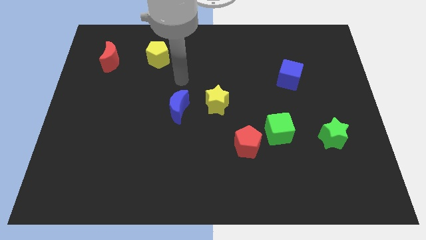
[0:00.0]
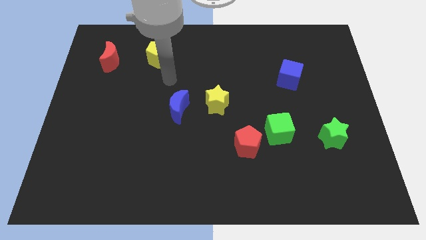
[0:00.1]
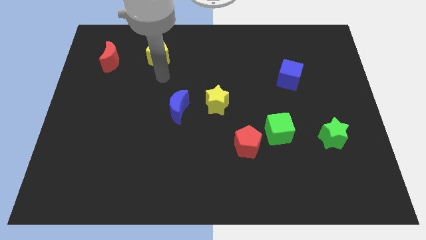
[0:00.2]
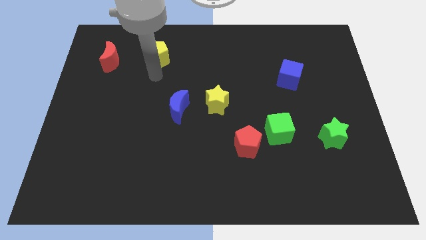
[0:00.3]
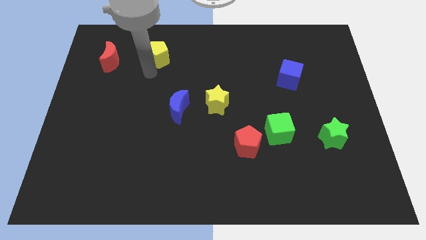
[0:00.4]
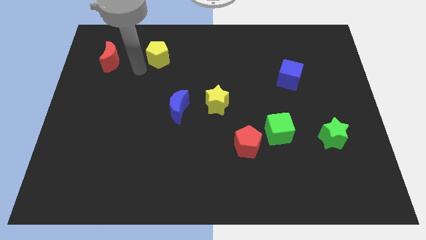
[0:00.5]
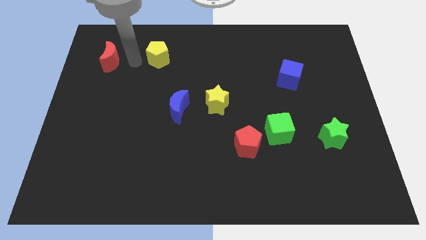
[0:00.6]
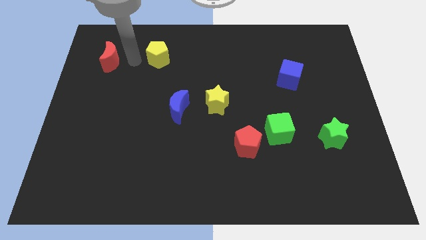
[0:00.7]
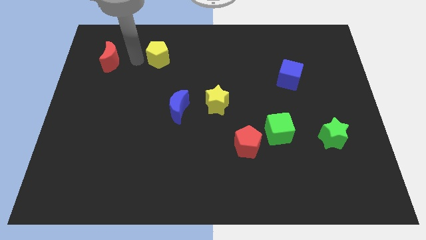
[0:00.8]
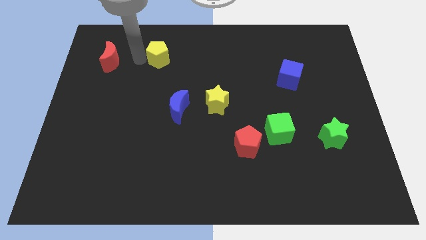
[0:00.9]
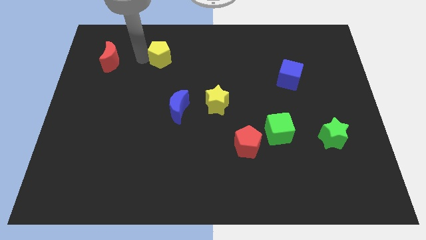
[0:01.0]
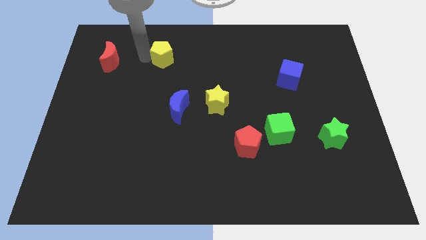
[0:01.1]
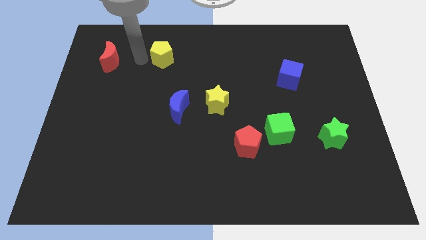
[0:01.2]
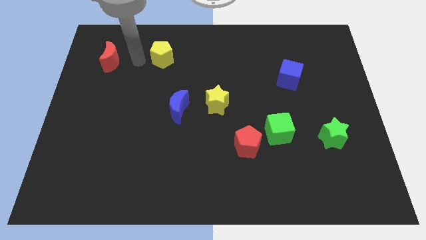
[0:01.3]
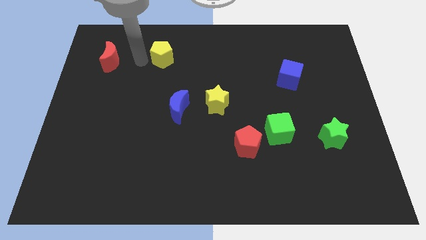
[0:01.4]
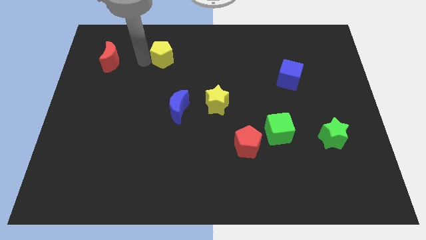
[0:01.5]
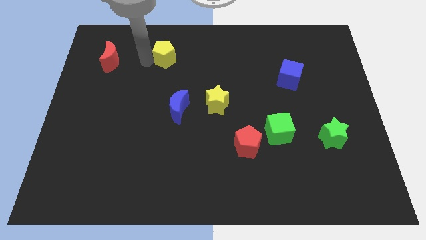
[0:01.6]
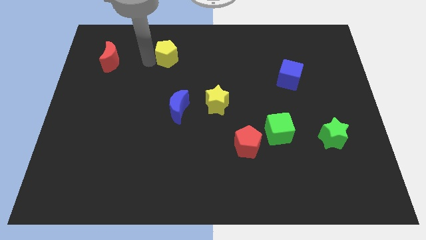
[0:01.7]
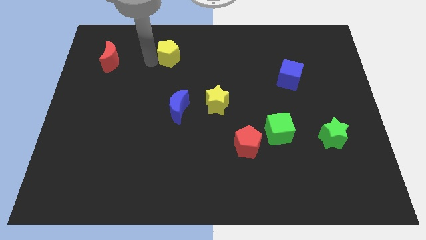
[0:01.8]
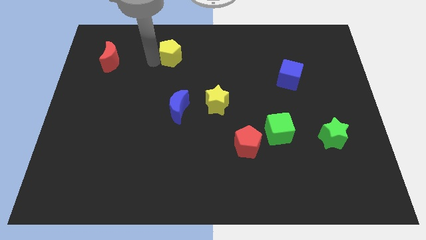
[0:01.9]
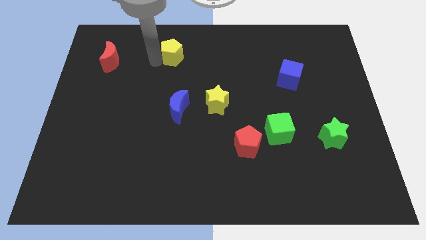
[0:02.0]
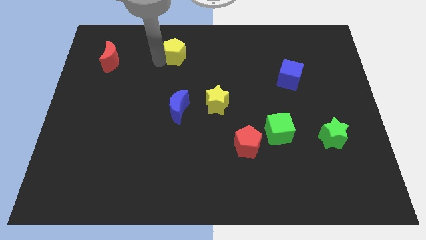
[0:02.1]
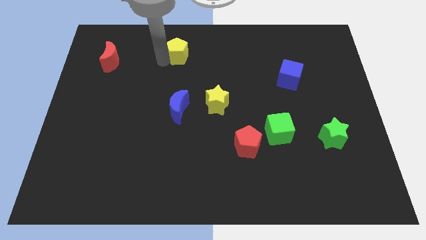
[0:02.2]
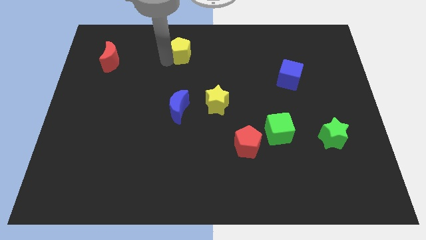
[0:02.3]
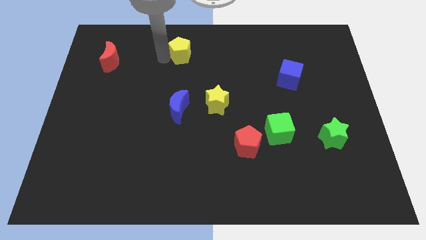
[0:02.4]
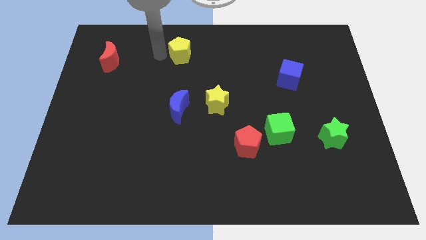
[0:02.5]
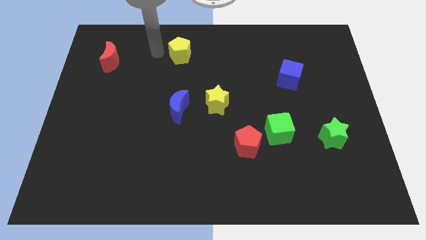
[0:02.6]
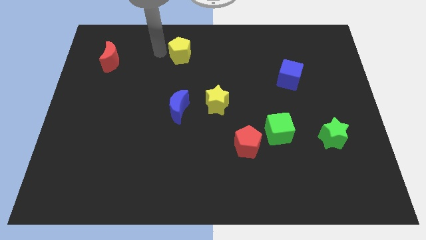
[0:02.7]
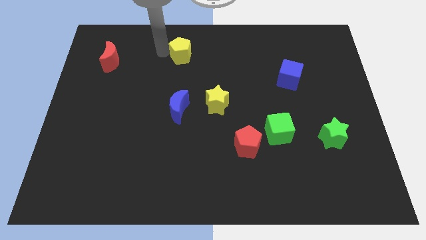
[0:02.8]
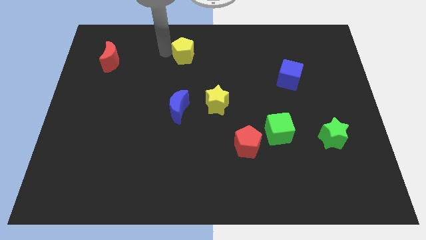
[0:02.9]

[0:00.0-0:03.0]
slightly slide the yellow pentagon right

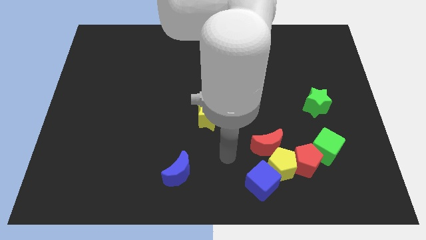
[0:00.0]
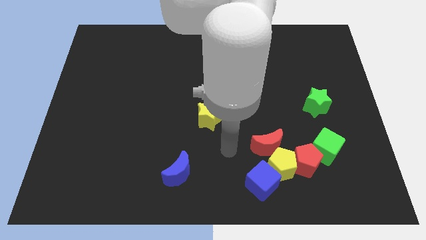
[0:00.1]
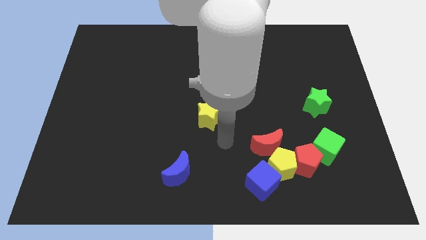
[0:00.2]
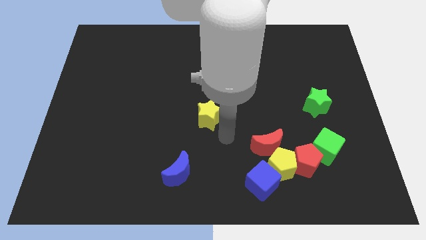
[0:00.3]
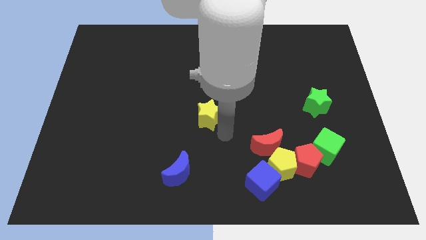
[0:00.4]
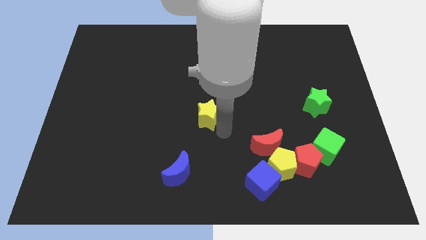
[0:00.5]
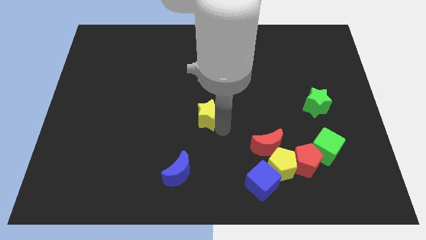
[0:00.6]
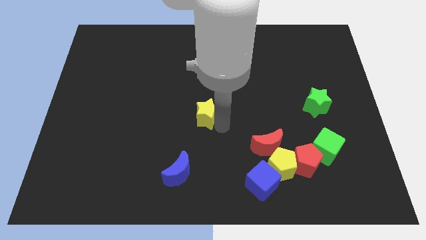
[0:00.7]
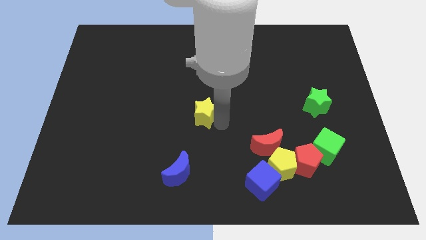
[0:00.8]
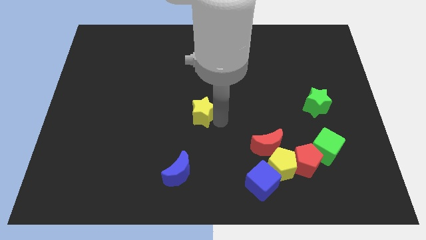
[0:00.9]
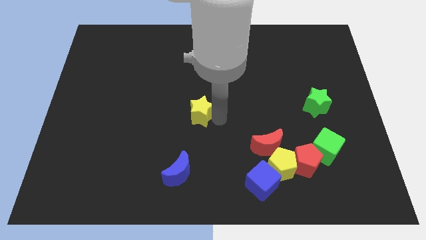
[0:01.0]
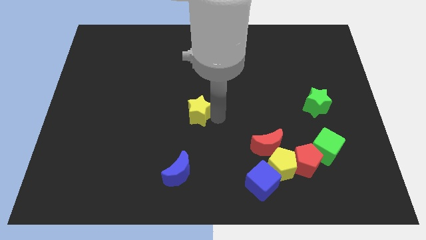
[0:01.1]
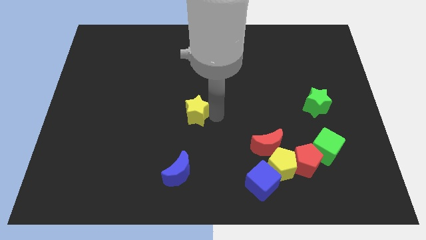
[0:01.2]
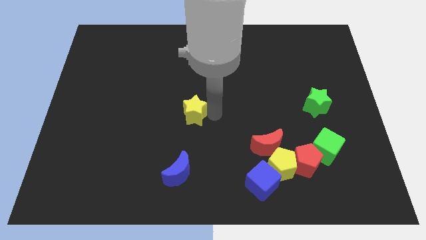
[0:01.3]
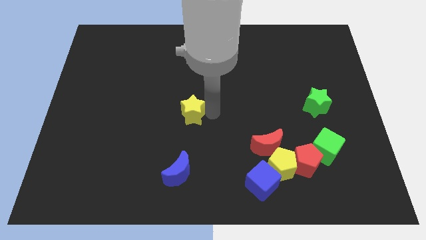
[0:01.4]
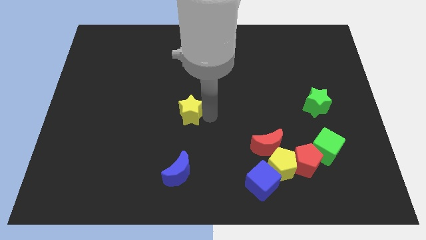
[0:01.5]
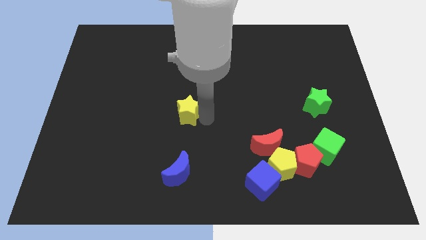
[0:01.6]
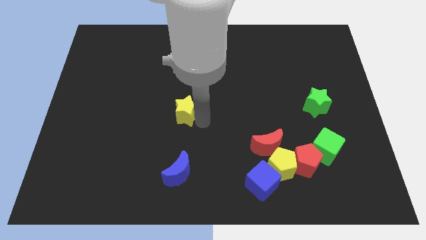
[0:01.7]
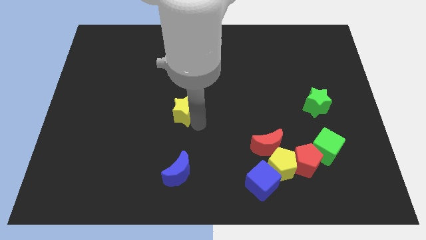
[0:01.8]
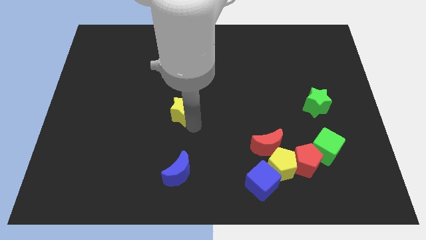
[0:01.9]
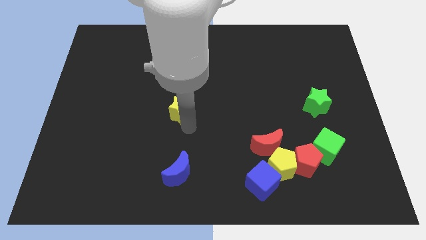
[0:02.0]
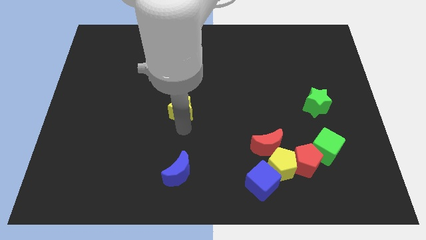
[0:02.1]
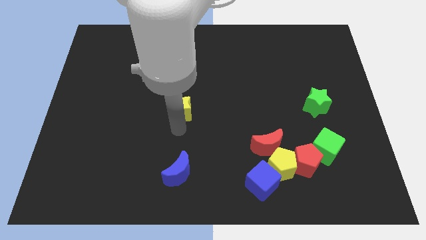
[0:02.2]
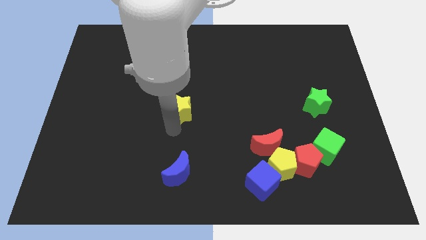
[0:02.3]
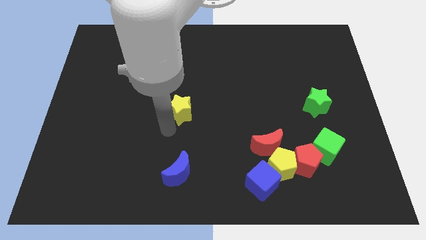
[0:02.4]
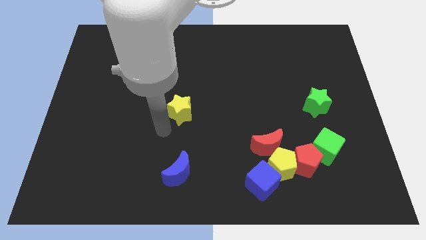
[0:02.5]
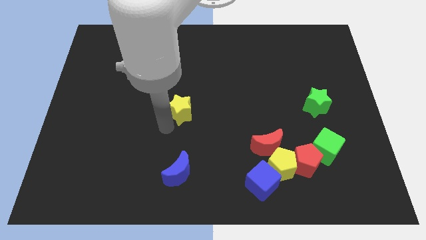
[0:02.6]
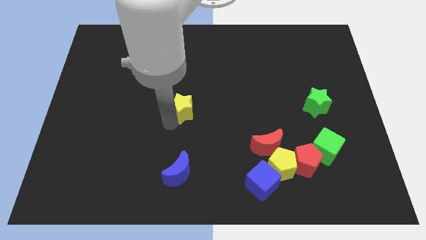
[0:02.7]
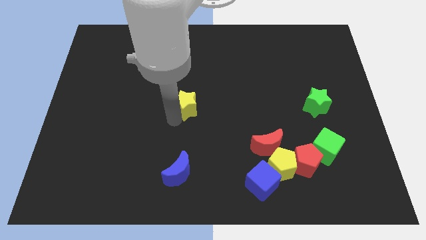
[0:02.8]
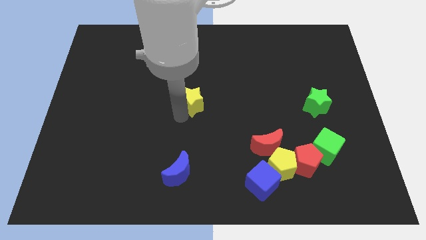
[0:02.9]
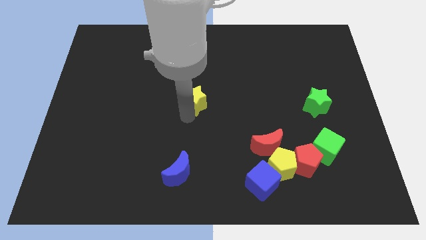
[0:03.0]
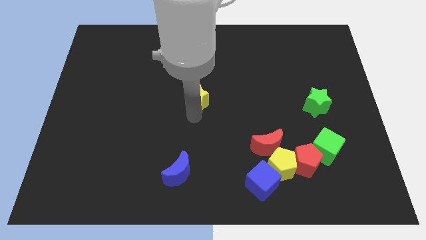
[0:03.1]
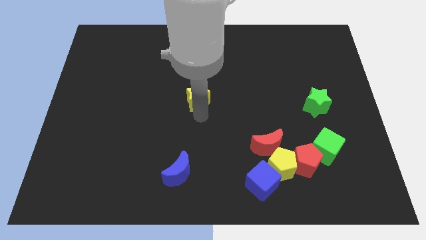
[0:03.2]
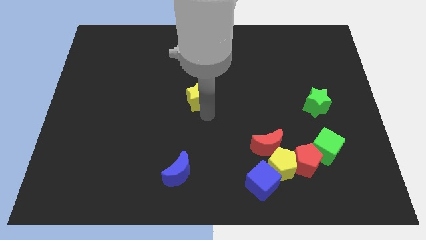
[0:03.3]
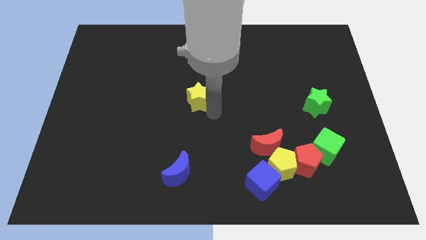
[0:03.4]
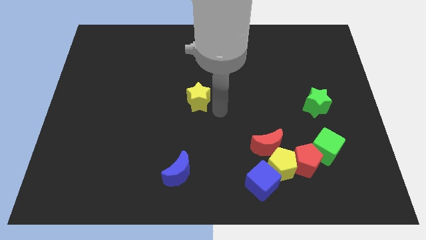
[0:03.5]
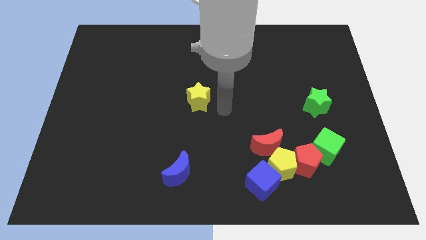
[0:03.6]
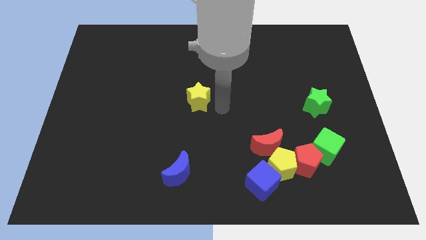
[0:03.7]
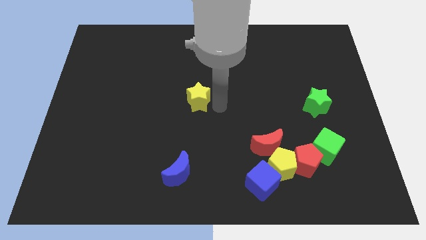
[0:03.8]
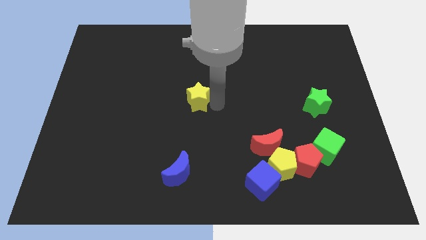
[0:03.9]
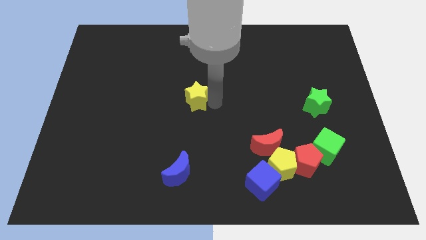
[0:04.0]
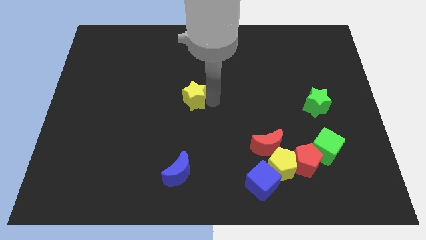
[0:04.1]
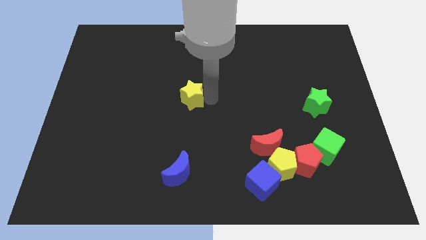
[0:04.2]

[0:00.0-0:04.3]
slide the yellow star up and then left a bit

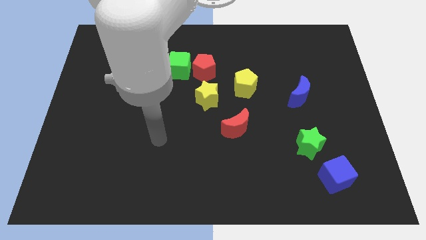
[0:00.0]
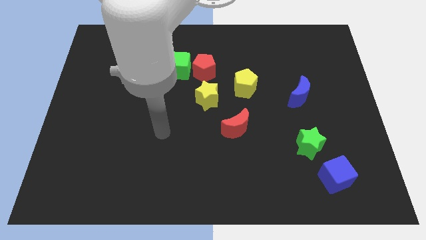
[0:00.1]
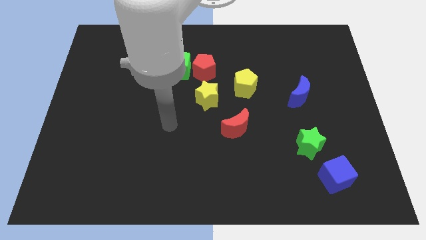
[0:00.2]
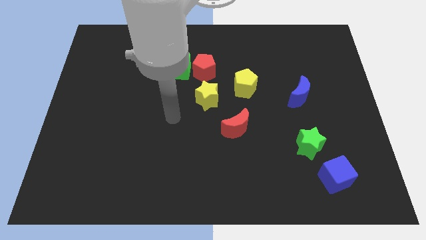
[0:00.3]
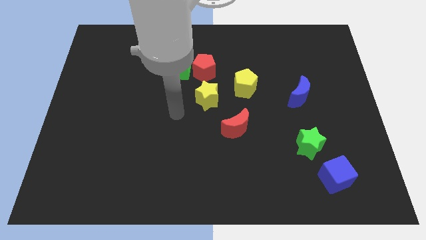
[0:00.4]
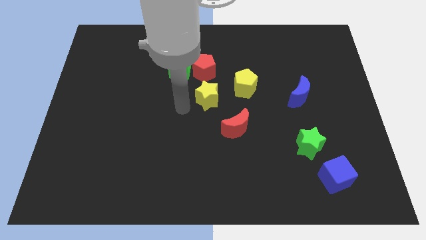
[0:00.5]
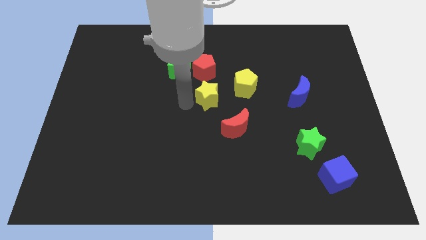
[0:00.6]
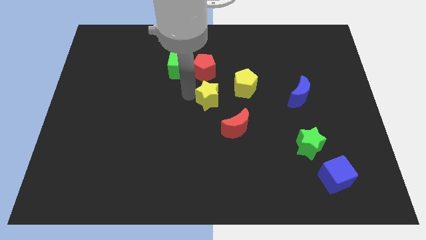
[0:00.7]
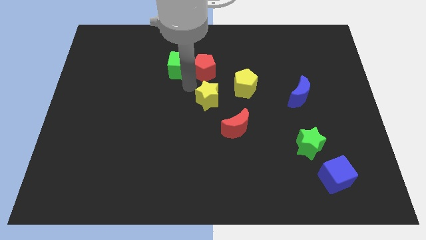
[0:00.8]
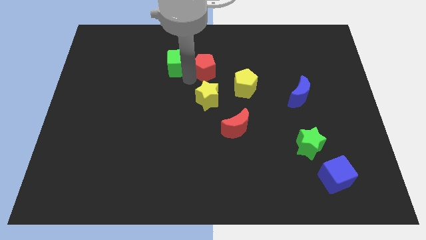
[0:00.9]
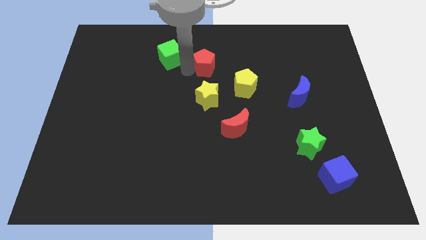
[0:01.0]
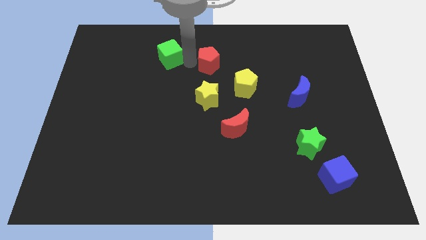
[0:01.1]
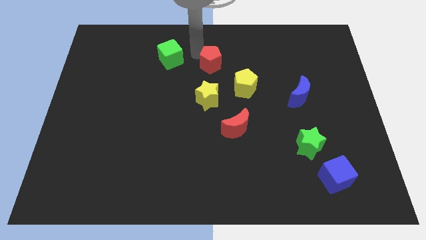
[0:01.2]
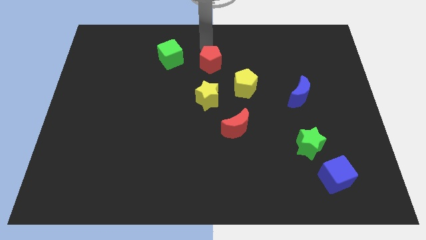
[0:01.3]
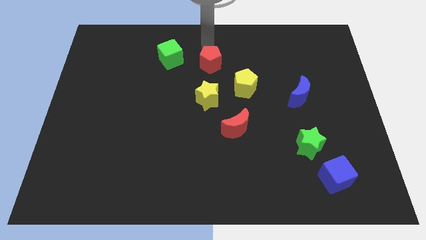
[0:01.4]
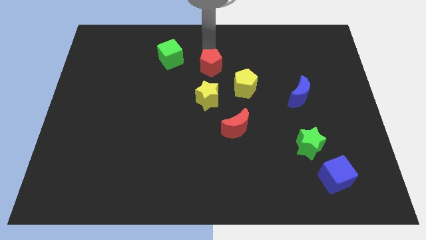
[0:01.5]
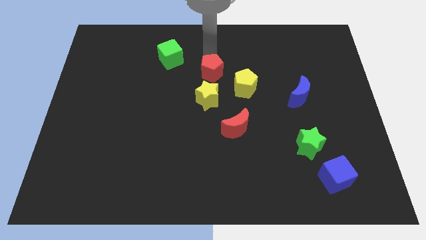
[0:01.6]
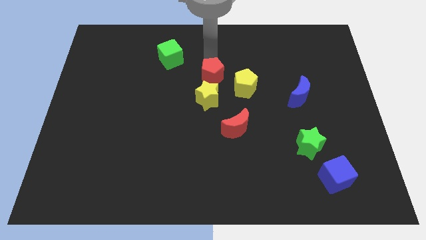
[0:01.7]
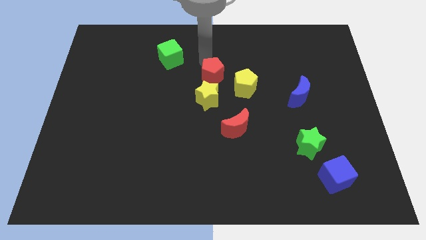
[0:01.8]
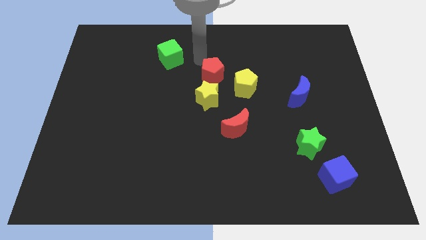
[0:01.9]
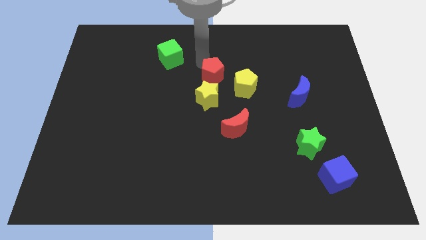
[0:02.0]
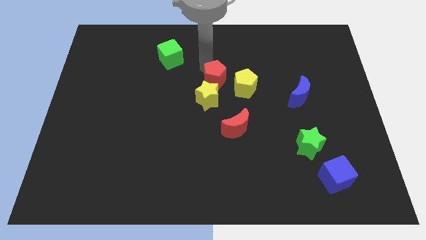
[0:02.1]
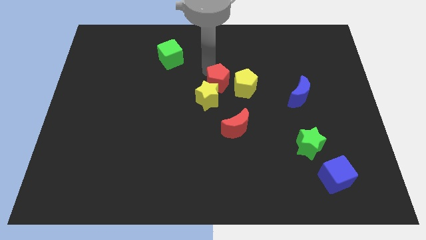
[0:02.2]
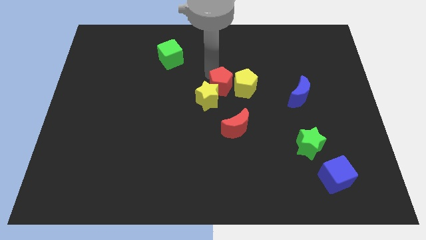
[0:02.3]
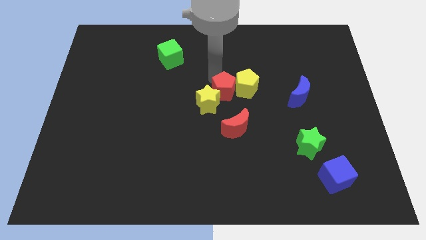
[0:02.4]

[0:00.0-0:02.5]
slightly push the red pentagon down and then right
